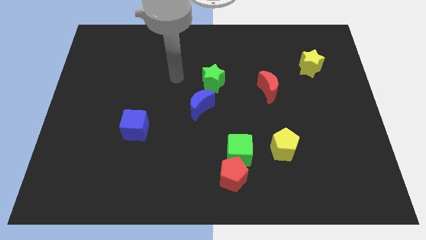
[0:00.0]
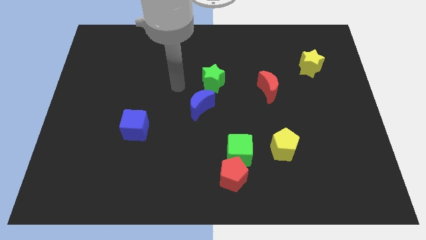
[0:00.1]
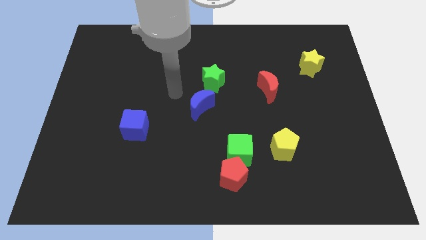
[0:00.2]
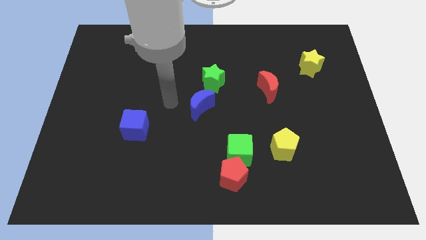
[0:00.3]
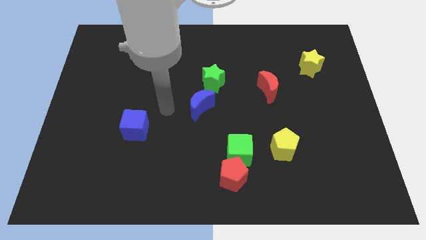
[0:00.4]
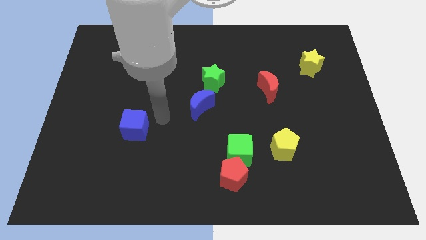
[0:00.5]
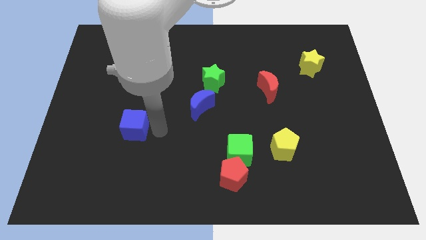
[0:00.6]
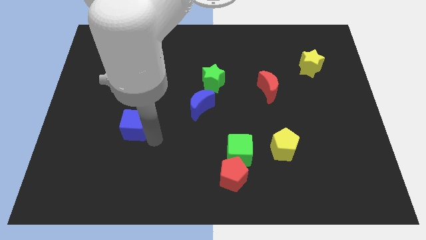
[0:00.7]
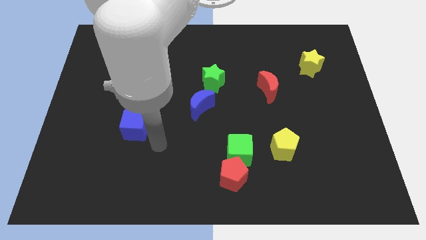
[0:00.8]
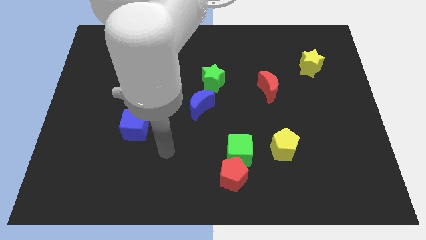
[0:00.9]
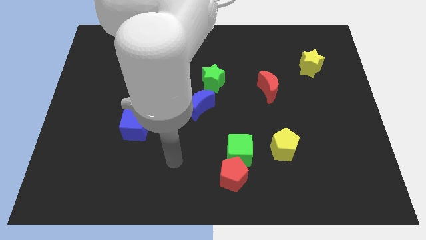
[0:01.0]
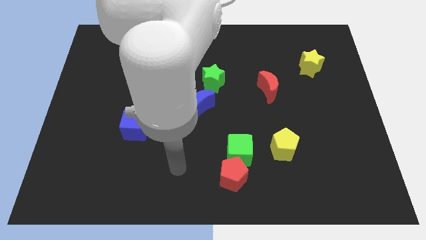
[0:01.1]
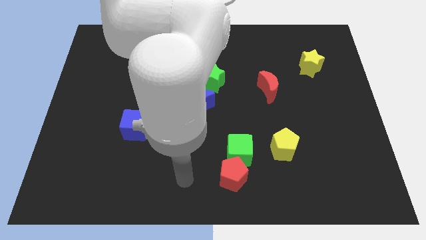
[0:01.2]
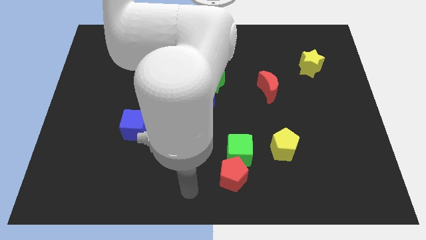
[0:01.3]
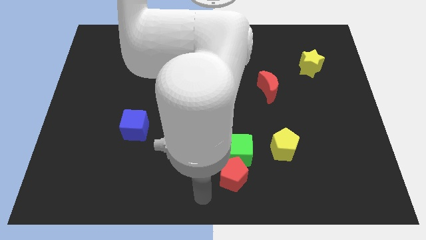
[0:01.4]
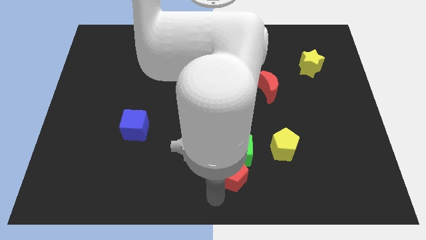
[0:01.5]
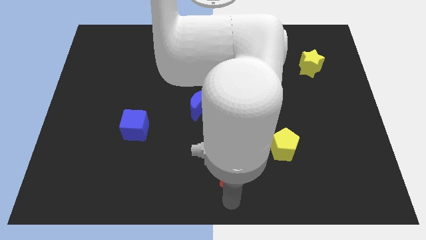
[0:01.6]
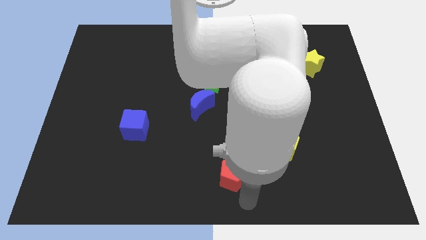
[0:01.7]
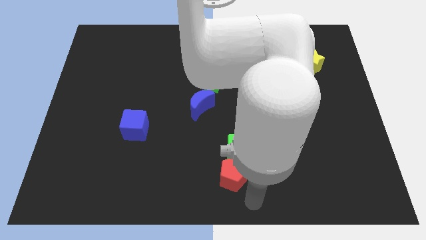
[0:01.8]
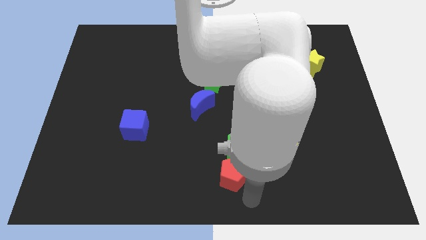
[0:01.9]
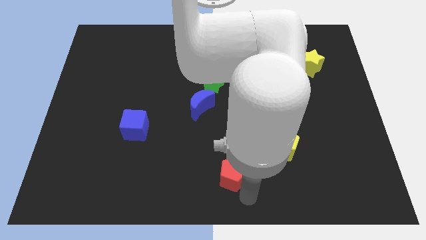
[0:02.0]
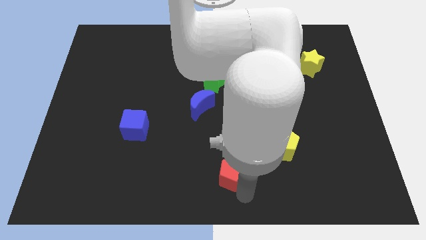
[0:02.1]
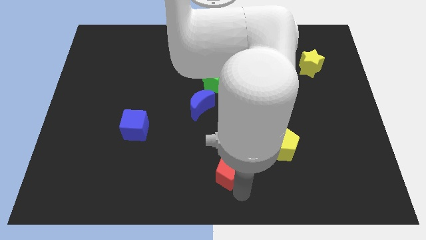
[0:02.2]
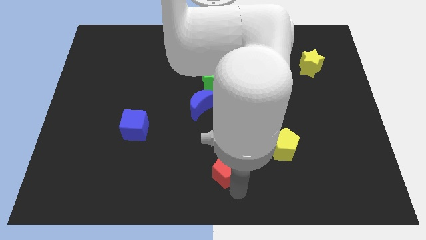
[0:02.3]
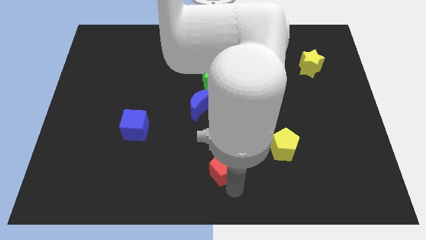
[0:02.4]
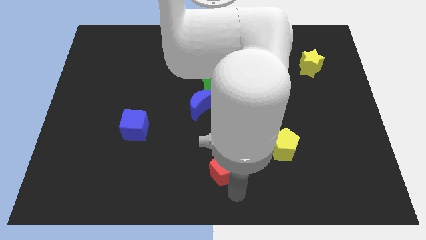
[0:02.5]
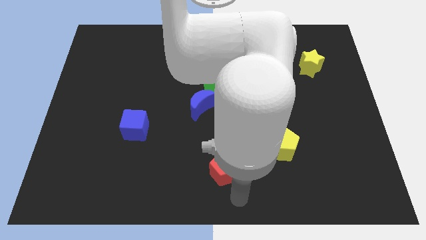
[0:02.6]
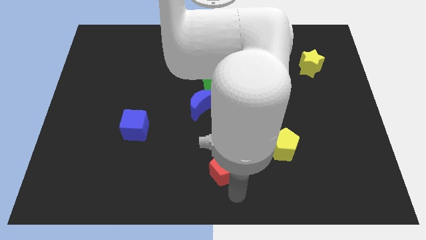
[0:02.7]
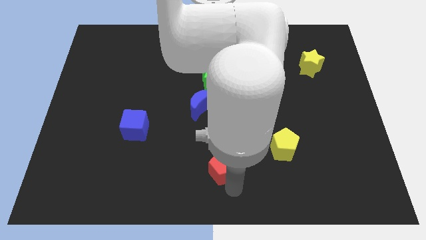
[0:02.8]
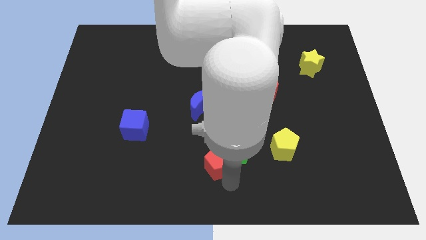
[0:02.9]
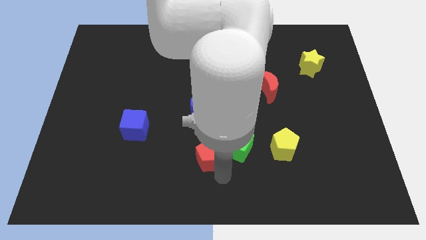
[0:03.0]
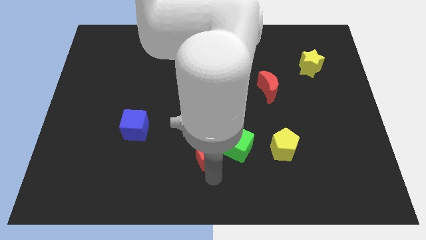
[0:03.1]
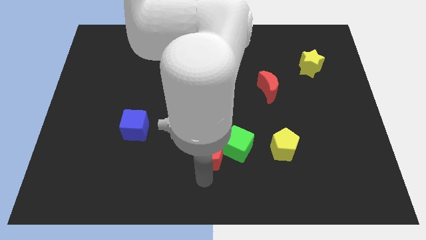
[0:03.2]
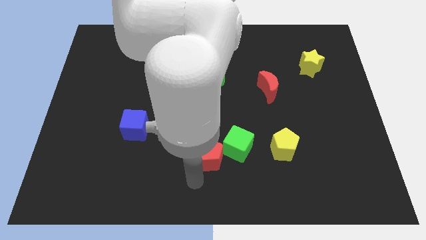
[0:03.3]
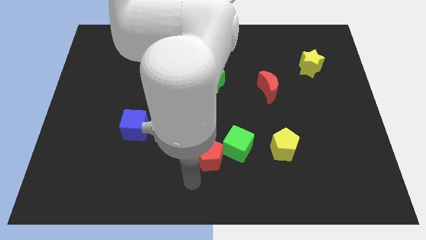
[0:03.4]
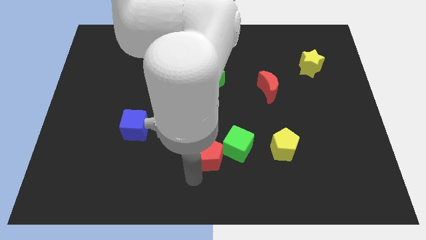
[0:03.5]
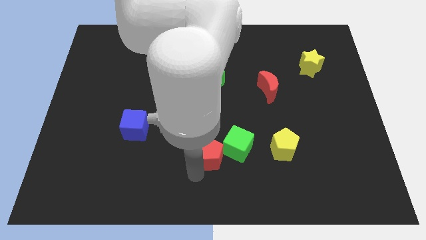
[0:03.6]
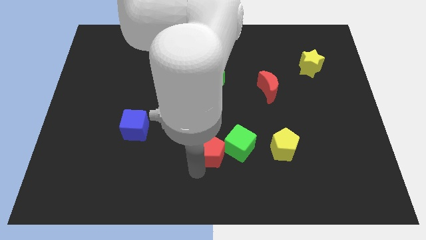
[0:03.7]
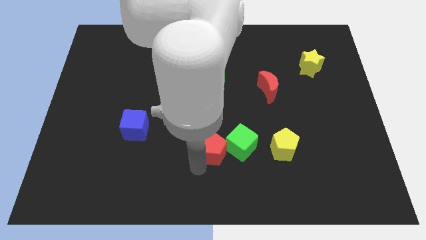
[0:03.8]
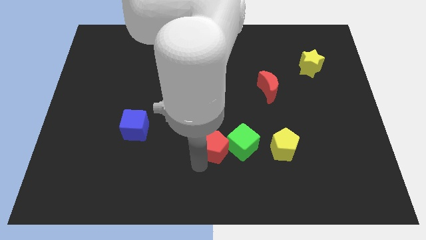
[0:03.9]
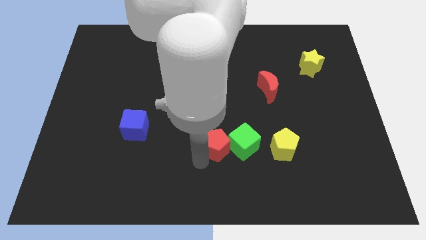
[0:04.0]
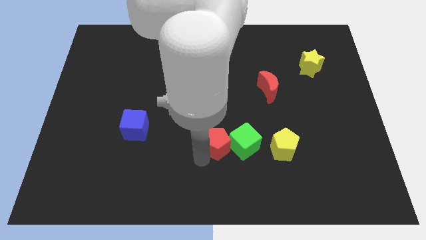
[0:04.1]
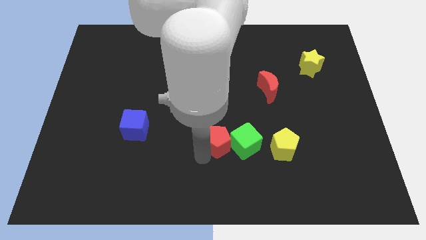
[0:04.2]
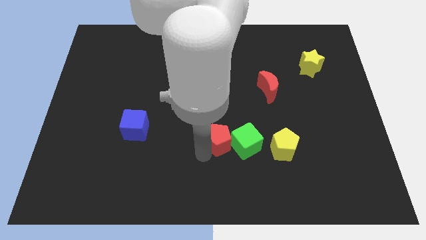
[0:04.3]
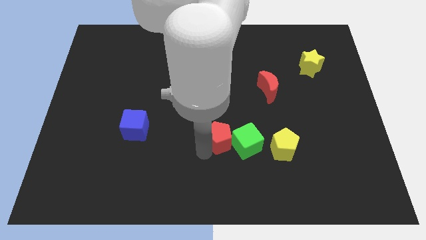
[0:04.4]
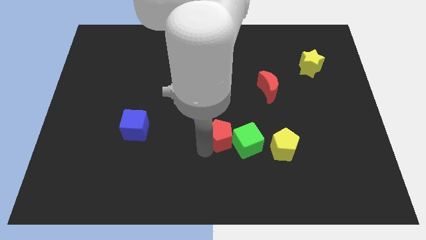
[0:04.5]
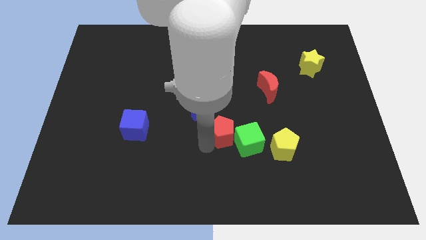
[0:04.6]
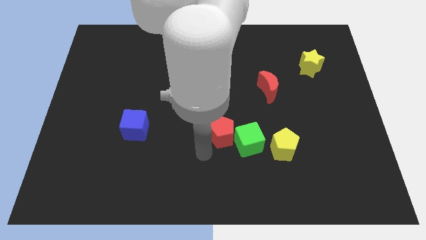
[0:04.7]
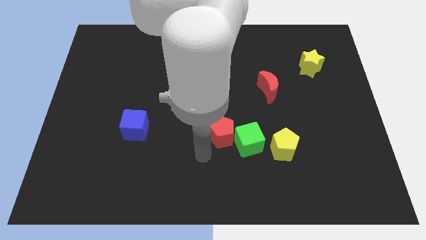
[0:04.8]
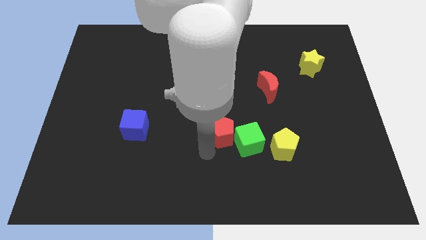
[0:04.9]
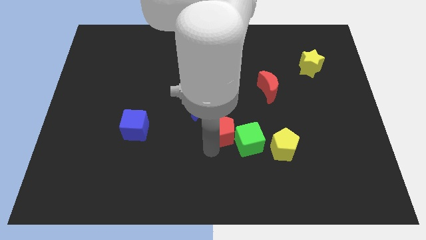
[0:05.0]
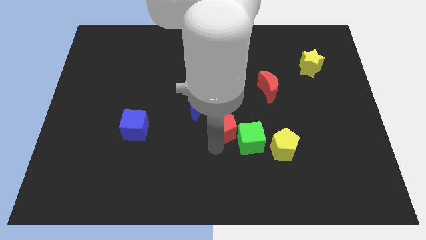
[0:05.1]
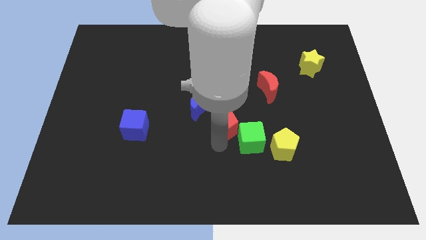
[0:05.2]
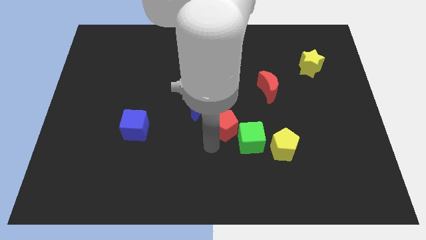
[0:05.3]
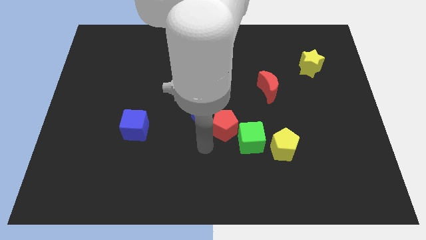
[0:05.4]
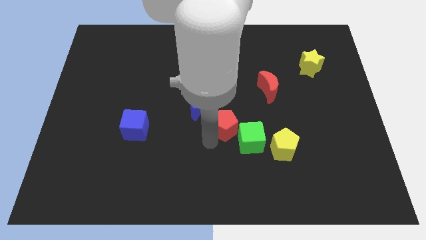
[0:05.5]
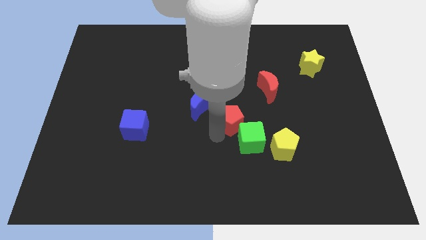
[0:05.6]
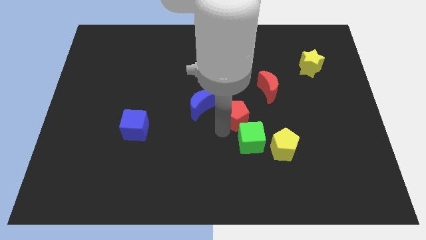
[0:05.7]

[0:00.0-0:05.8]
put the red pentagon to the bottom left of the red moon

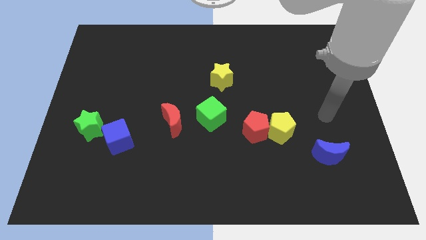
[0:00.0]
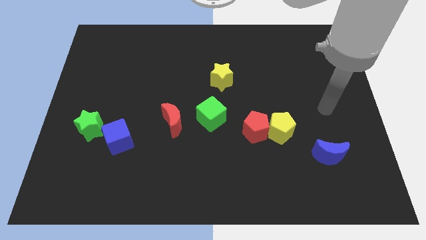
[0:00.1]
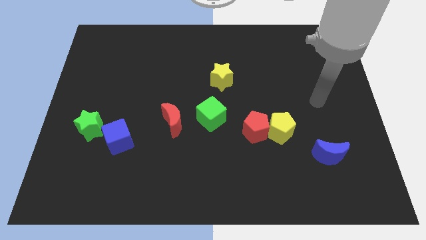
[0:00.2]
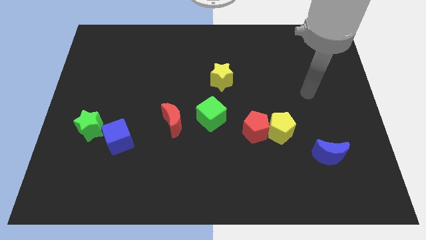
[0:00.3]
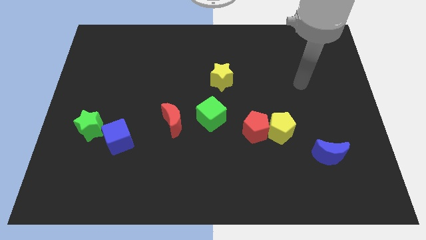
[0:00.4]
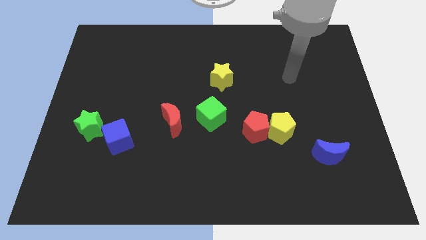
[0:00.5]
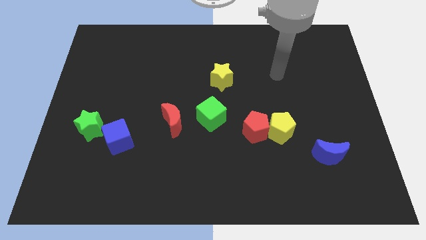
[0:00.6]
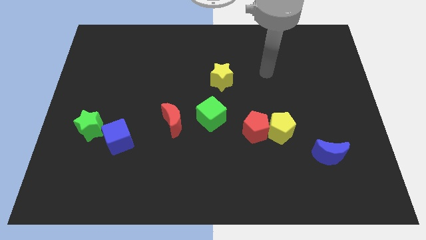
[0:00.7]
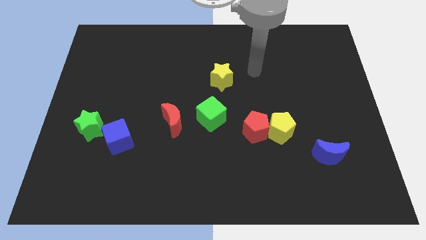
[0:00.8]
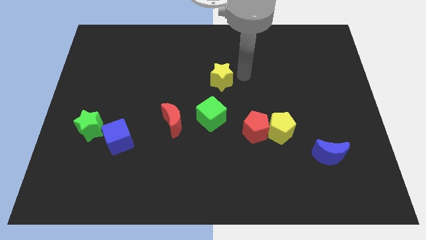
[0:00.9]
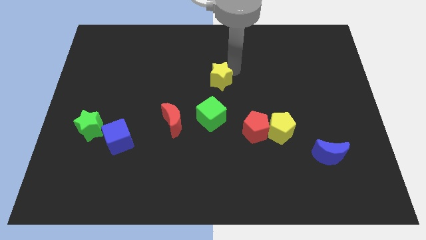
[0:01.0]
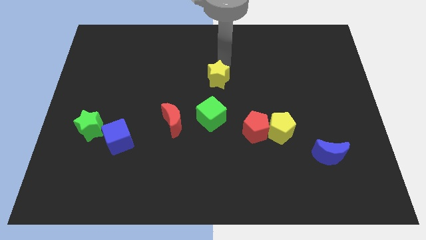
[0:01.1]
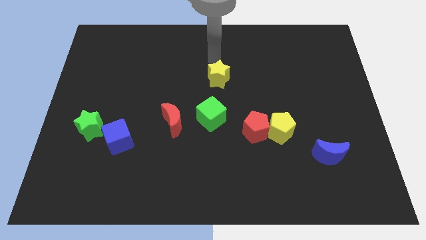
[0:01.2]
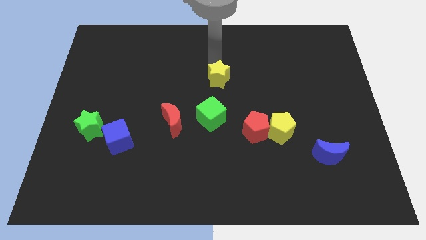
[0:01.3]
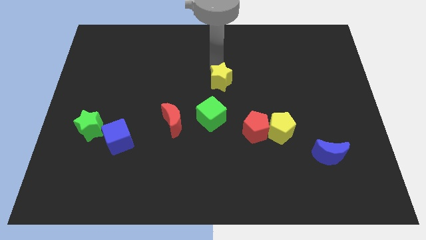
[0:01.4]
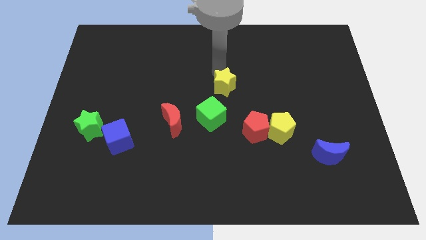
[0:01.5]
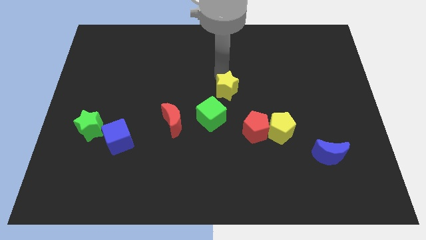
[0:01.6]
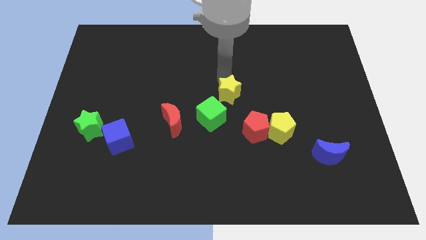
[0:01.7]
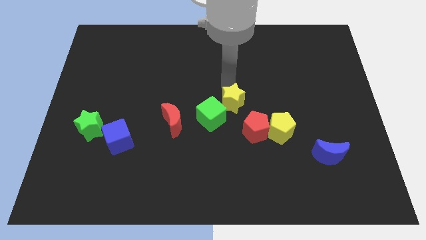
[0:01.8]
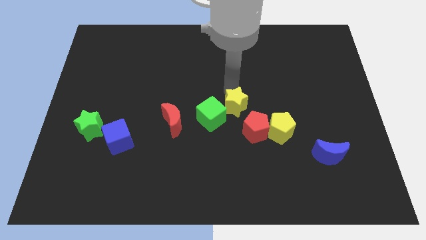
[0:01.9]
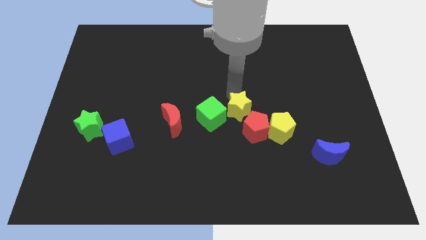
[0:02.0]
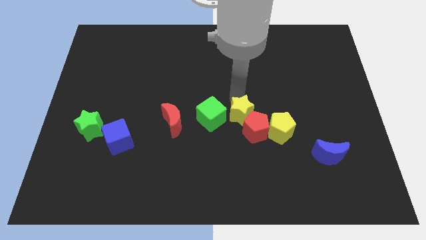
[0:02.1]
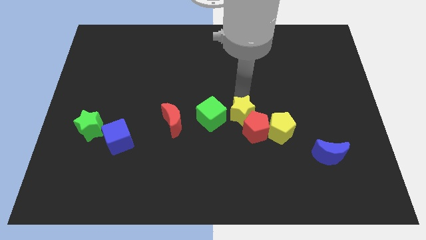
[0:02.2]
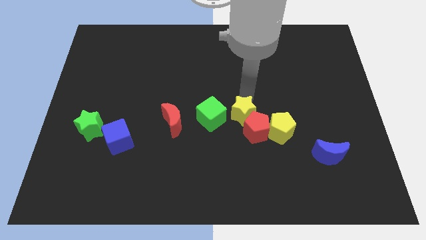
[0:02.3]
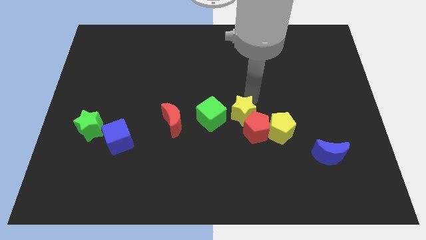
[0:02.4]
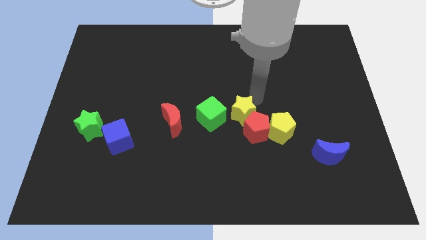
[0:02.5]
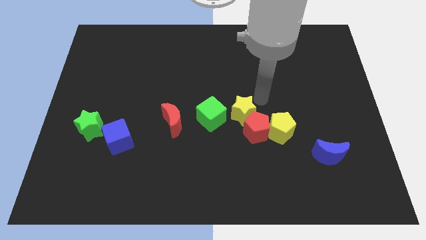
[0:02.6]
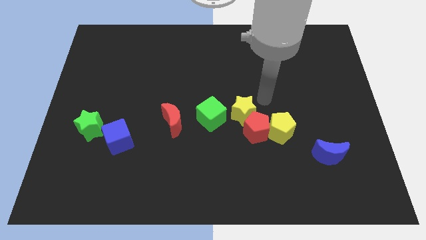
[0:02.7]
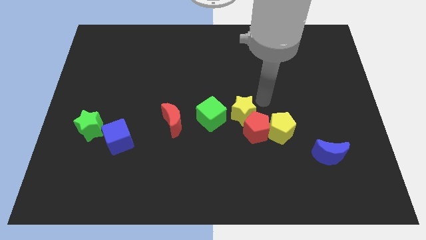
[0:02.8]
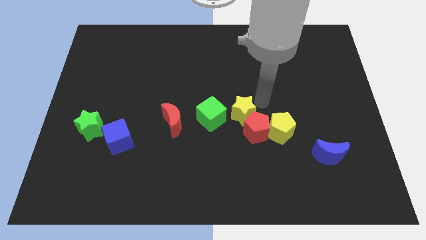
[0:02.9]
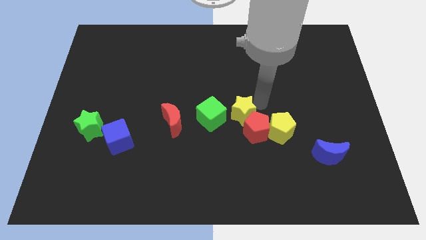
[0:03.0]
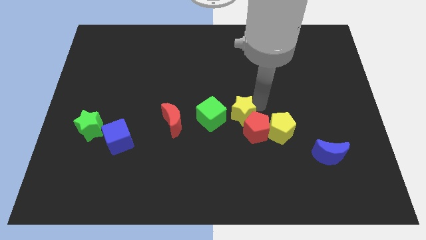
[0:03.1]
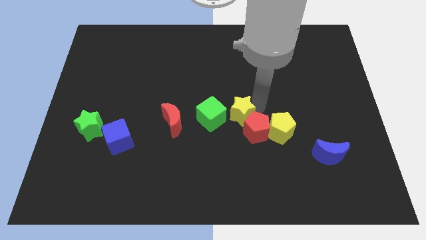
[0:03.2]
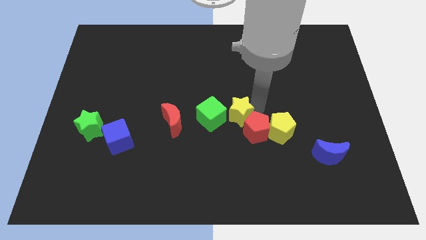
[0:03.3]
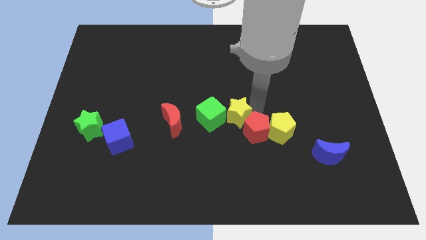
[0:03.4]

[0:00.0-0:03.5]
push the yellow star to the bottom right side of the green cube
